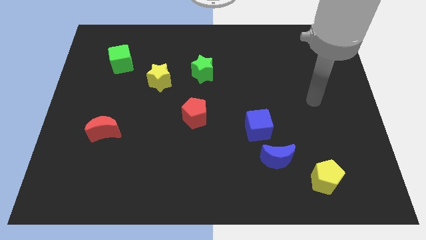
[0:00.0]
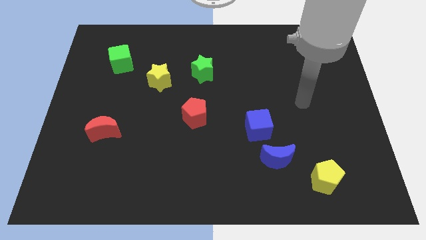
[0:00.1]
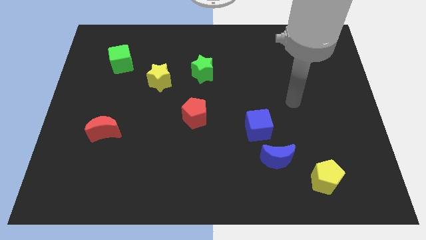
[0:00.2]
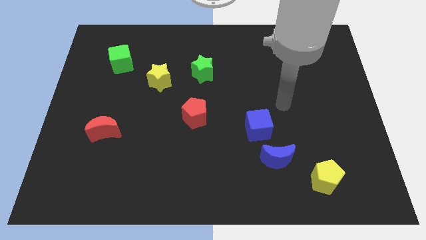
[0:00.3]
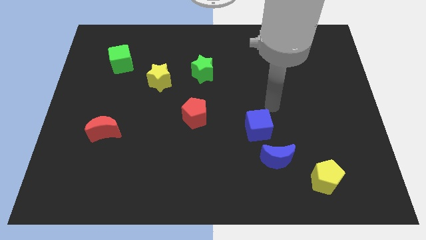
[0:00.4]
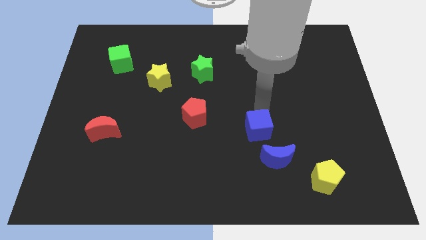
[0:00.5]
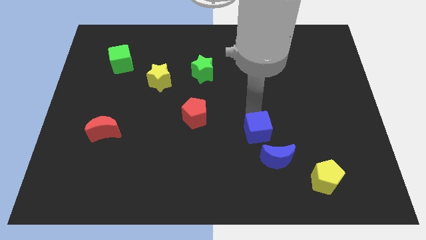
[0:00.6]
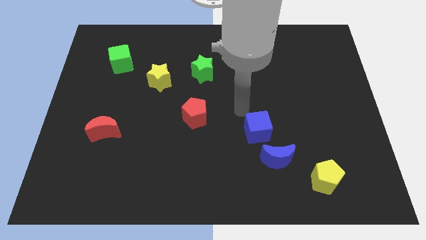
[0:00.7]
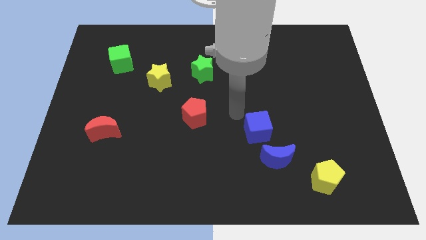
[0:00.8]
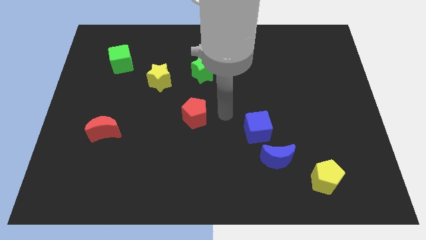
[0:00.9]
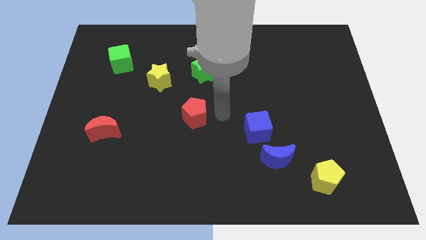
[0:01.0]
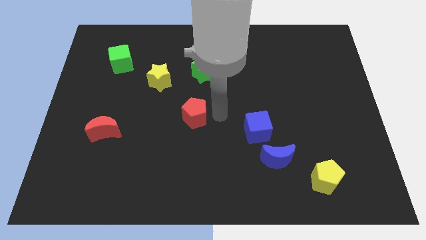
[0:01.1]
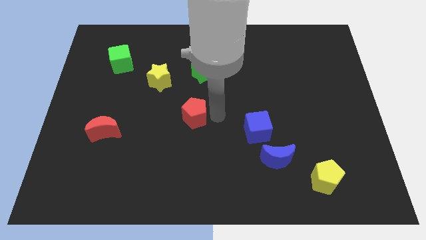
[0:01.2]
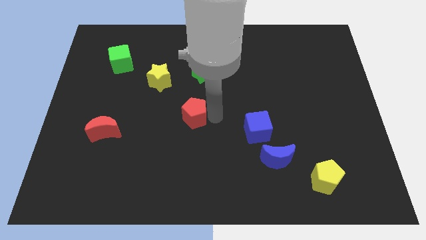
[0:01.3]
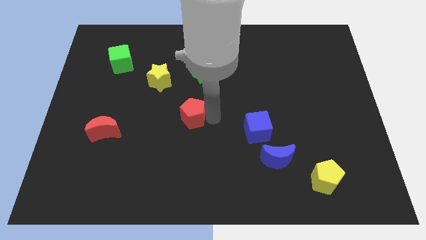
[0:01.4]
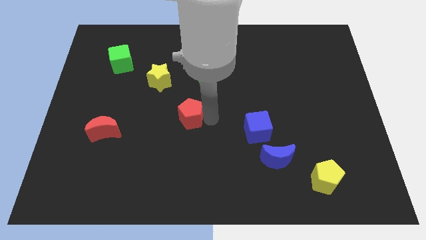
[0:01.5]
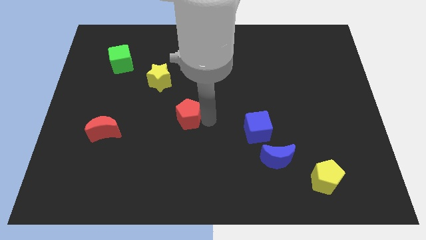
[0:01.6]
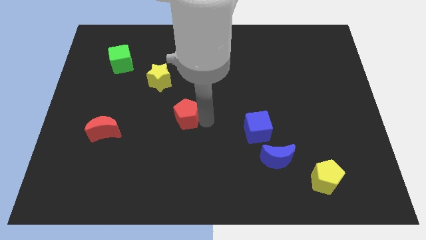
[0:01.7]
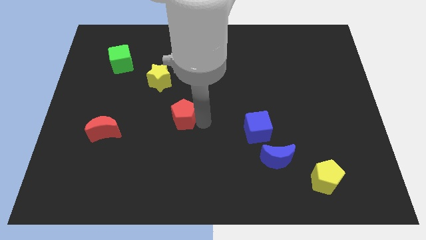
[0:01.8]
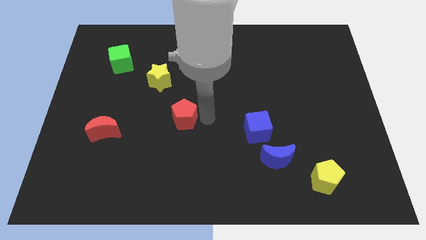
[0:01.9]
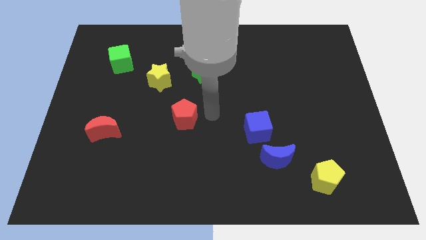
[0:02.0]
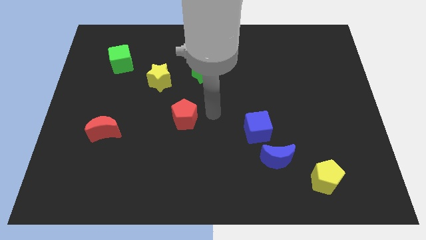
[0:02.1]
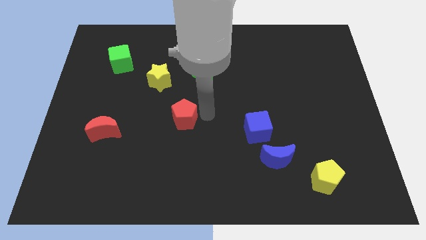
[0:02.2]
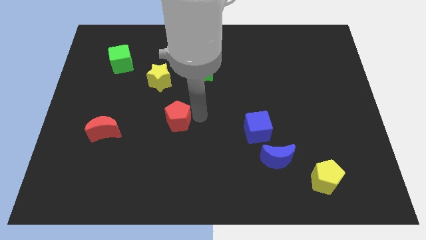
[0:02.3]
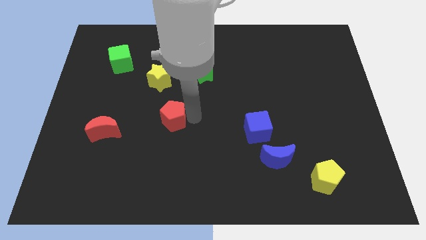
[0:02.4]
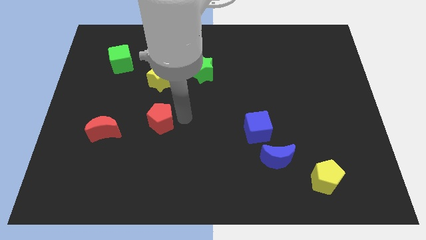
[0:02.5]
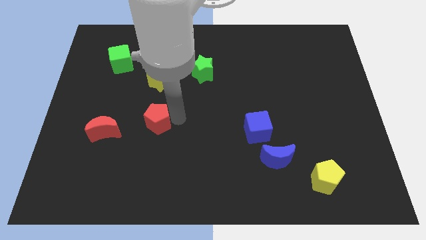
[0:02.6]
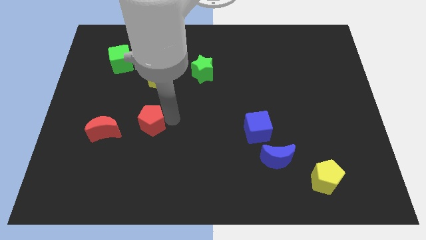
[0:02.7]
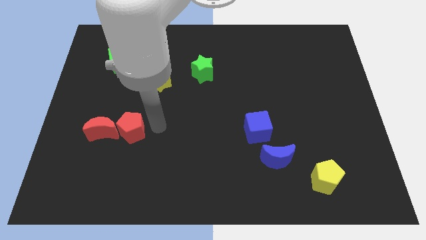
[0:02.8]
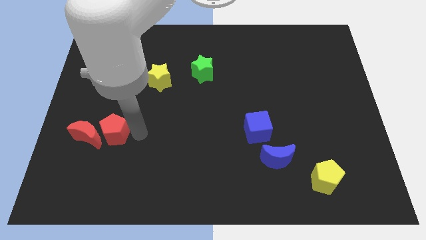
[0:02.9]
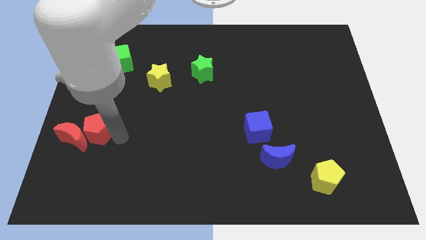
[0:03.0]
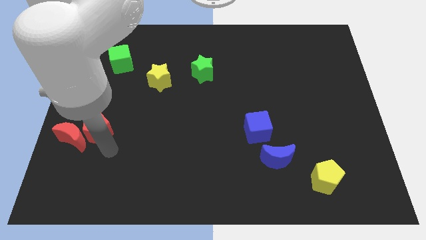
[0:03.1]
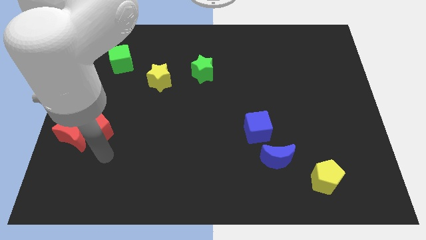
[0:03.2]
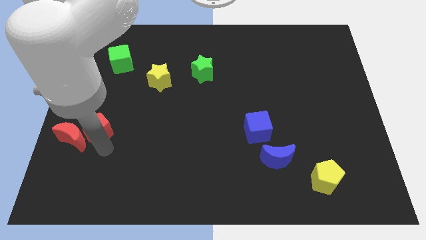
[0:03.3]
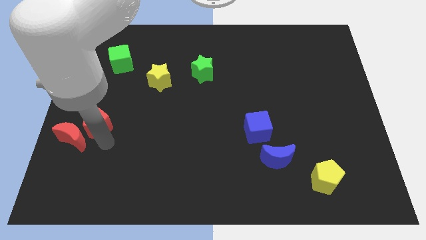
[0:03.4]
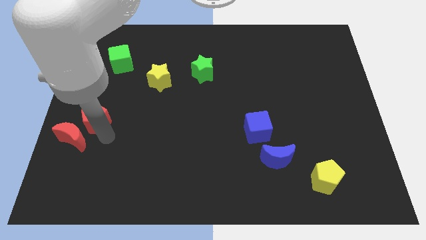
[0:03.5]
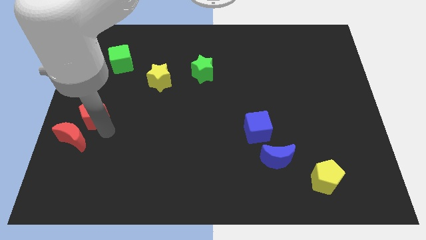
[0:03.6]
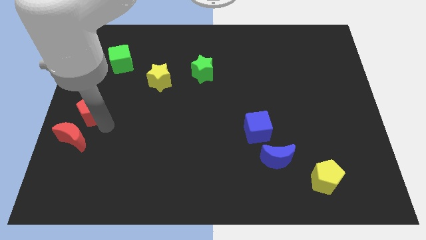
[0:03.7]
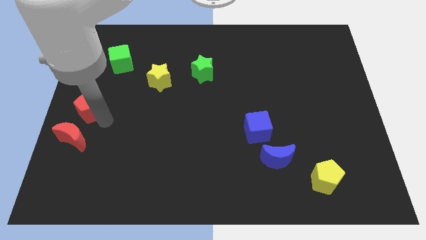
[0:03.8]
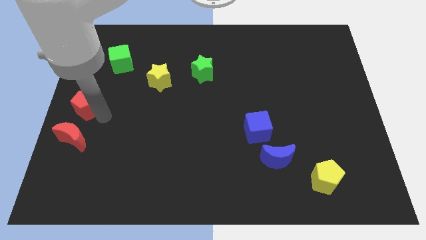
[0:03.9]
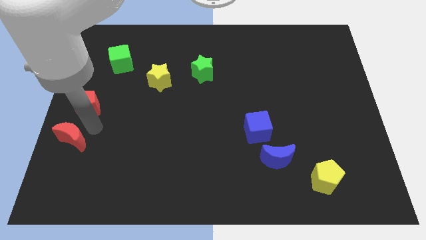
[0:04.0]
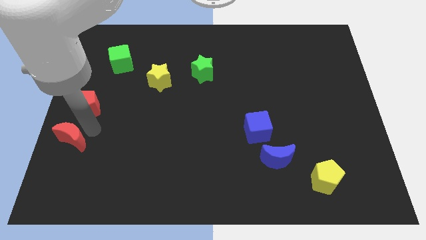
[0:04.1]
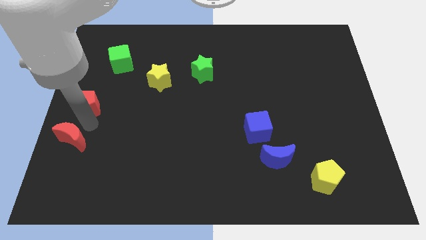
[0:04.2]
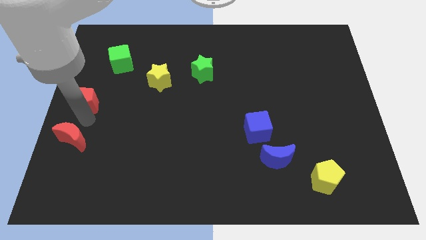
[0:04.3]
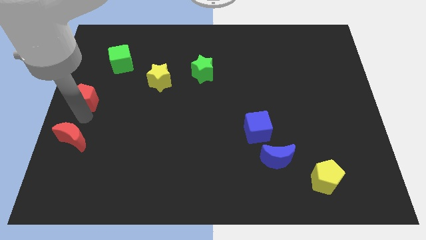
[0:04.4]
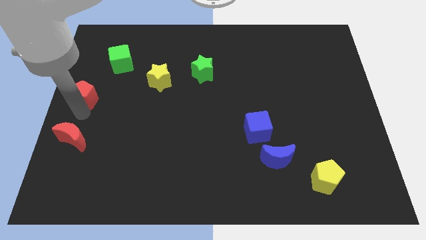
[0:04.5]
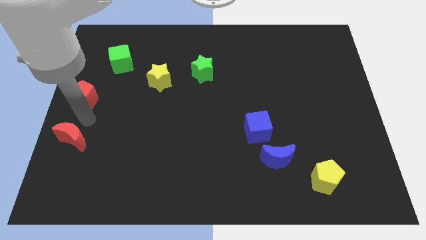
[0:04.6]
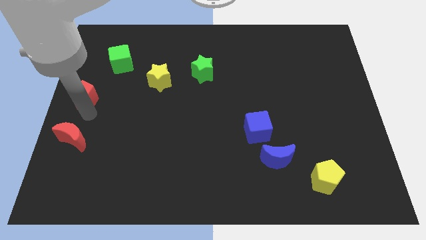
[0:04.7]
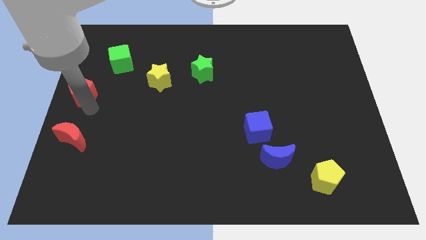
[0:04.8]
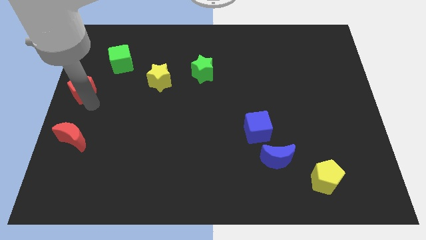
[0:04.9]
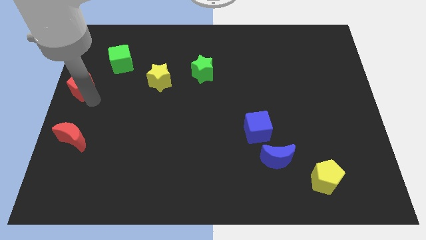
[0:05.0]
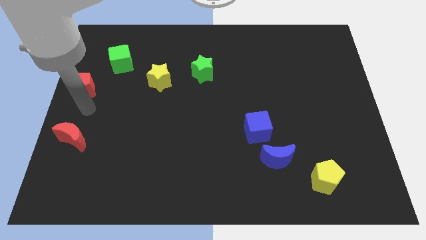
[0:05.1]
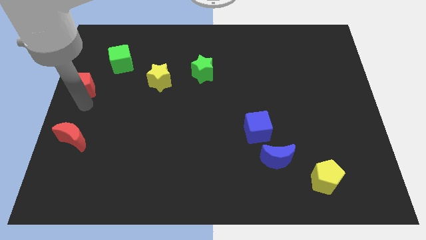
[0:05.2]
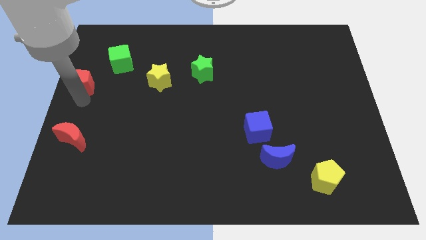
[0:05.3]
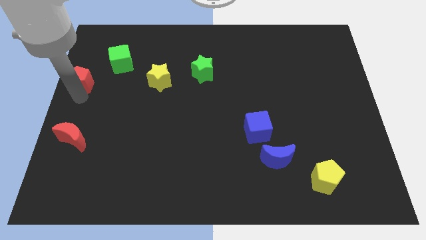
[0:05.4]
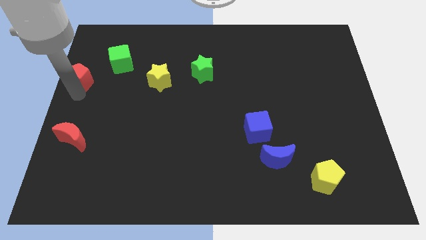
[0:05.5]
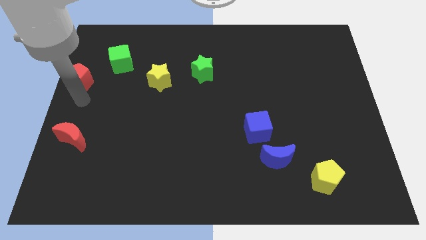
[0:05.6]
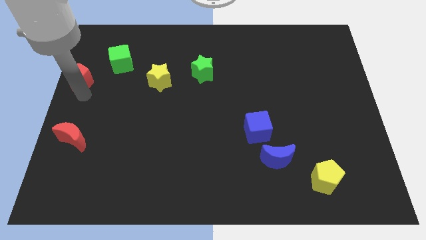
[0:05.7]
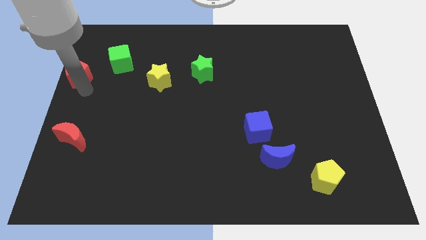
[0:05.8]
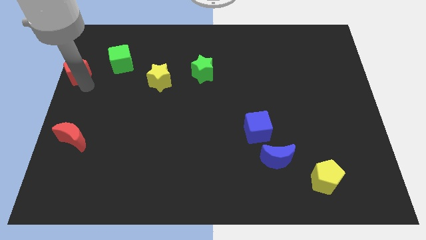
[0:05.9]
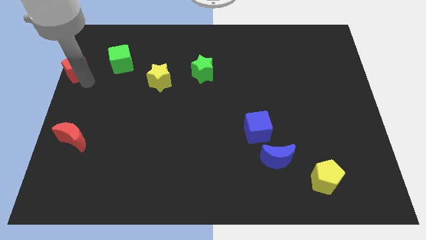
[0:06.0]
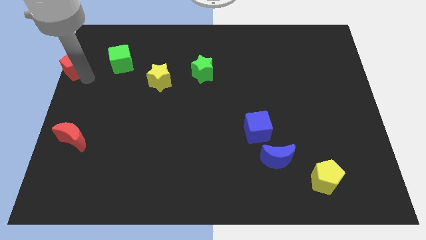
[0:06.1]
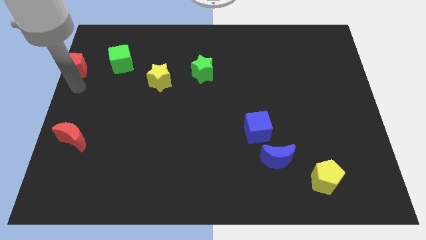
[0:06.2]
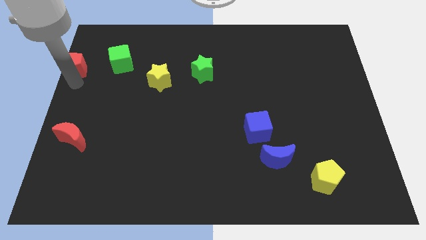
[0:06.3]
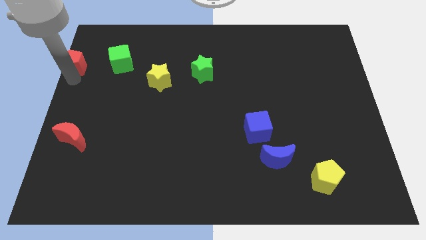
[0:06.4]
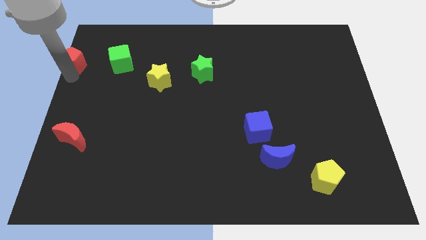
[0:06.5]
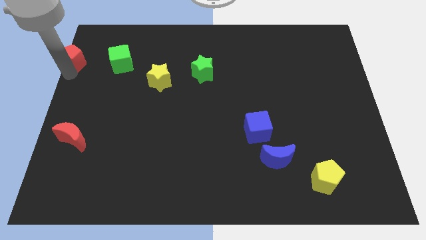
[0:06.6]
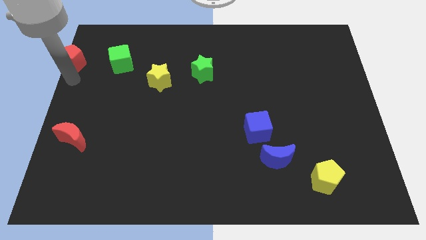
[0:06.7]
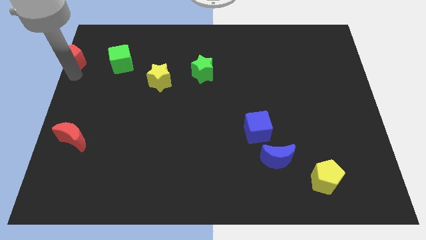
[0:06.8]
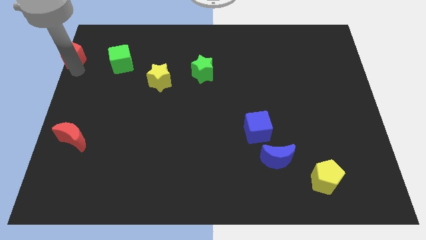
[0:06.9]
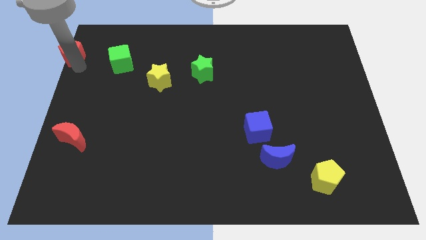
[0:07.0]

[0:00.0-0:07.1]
slide the red pentagon to the upper left corner
